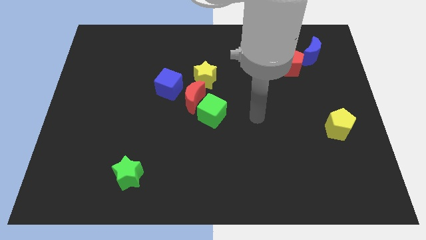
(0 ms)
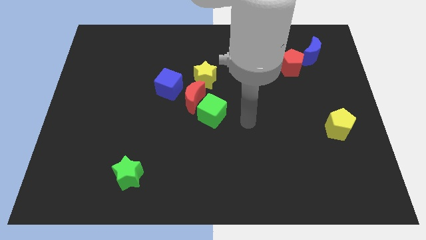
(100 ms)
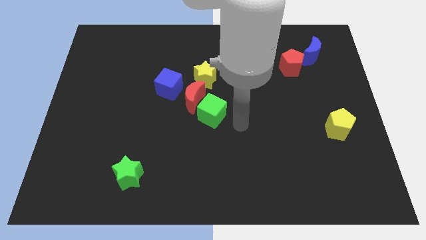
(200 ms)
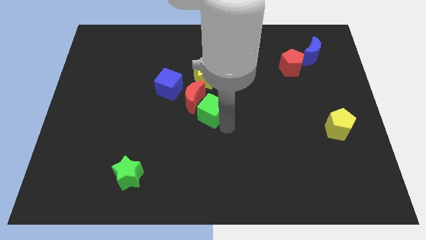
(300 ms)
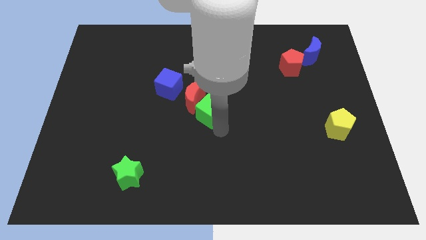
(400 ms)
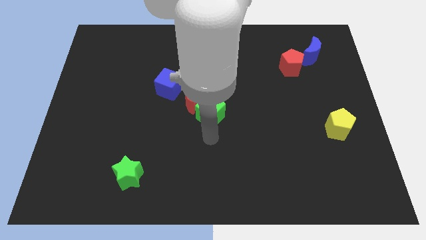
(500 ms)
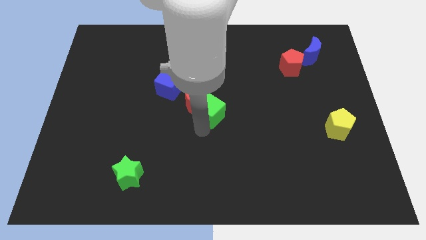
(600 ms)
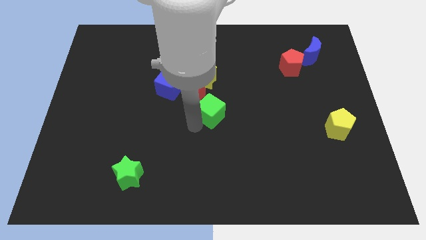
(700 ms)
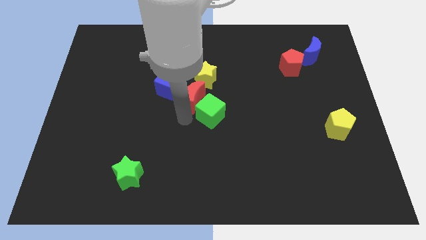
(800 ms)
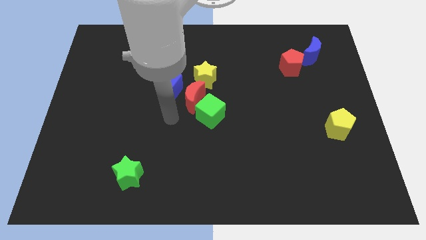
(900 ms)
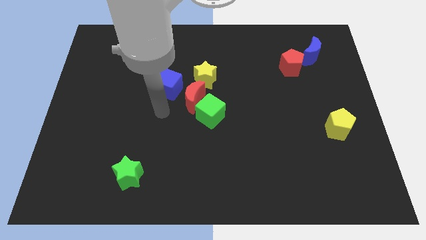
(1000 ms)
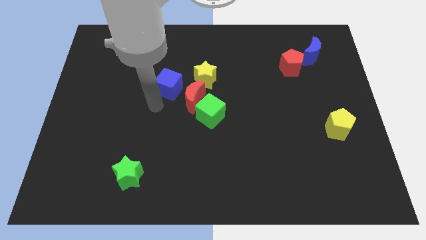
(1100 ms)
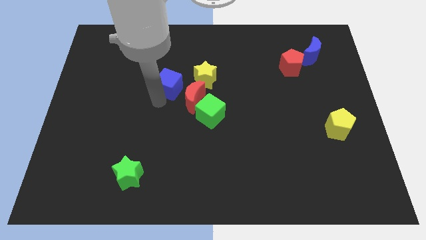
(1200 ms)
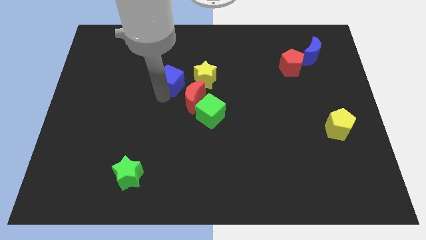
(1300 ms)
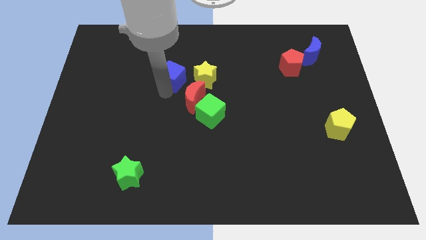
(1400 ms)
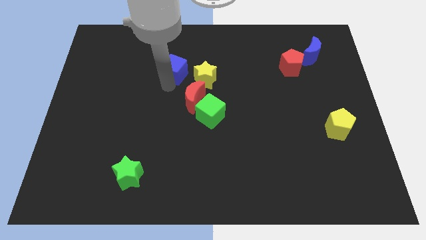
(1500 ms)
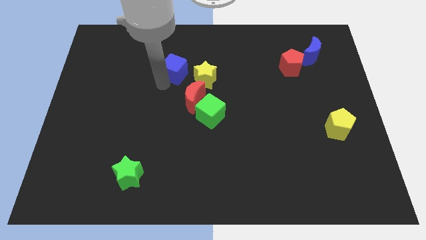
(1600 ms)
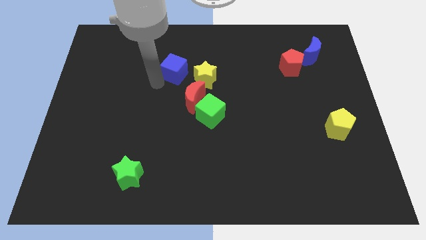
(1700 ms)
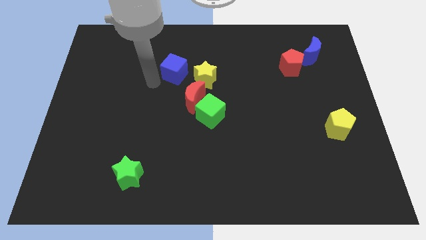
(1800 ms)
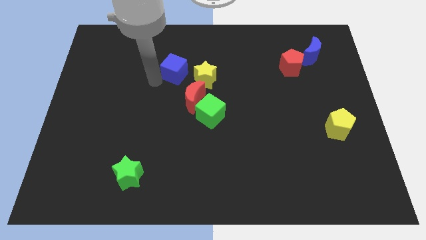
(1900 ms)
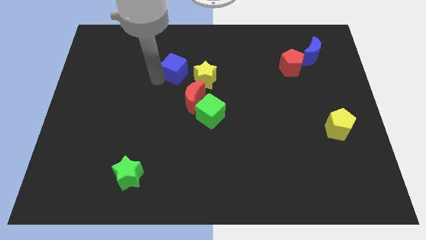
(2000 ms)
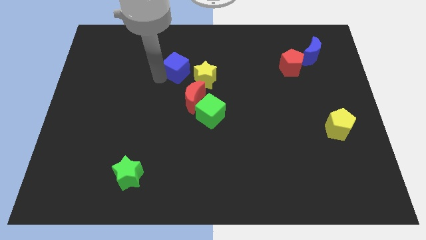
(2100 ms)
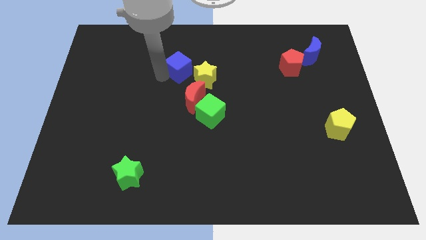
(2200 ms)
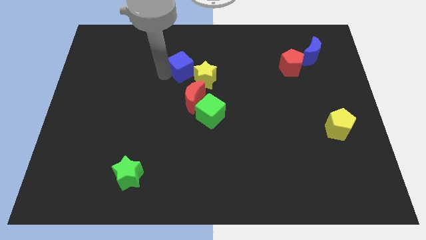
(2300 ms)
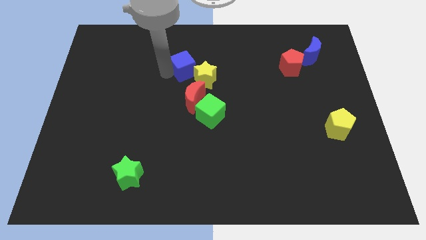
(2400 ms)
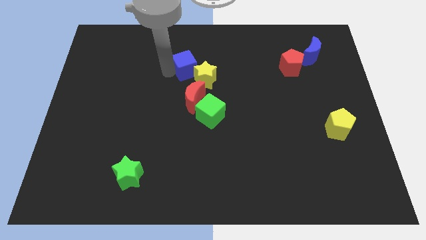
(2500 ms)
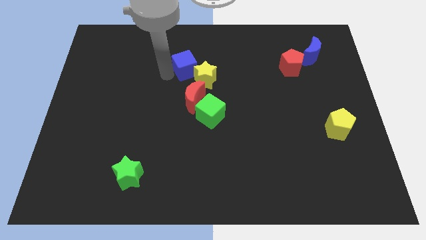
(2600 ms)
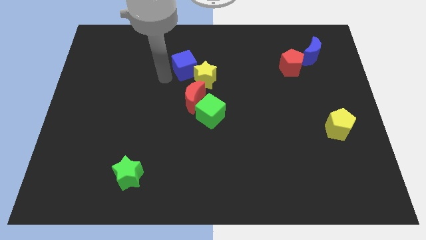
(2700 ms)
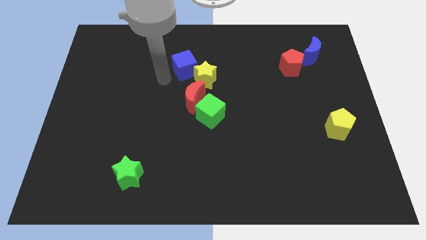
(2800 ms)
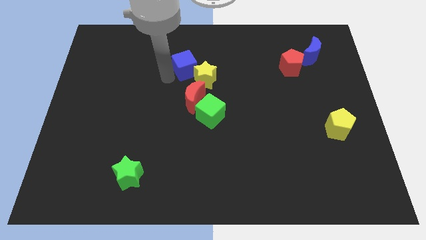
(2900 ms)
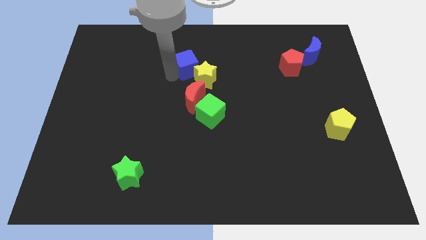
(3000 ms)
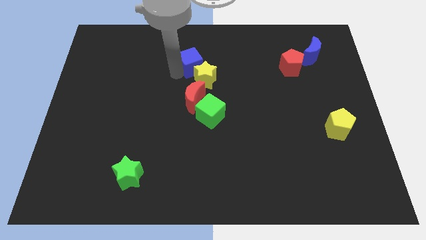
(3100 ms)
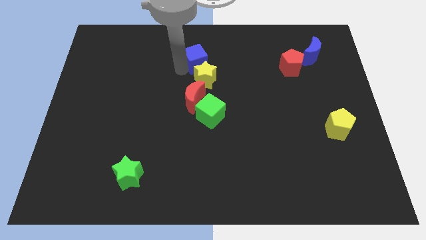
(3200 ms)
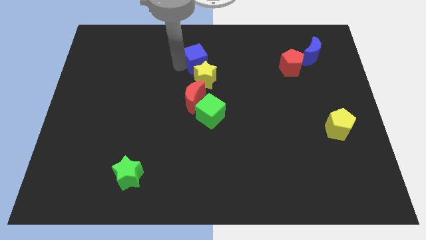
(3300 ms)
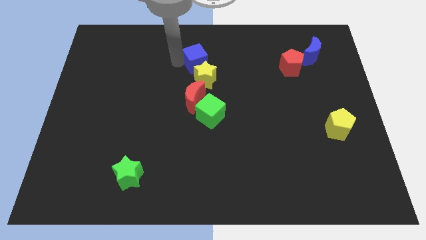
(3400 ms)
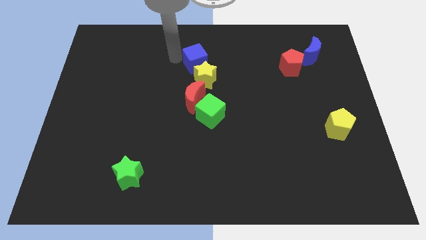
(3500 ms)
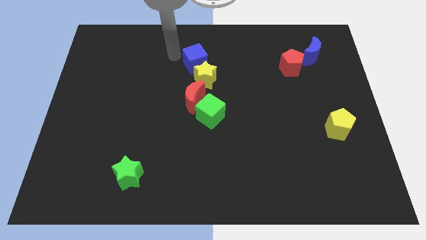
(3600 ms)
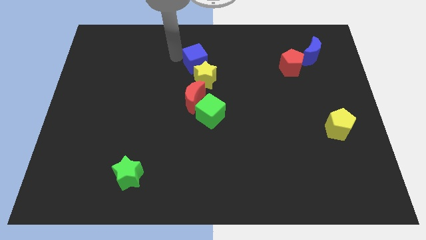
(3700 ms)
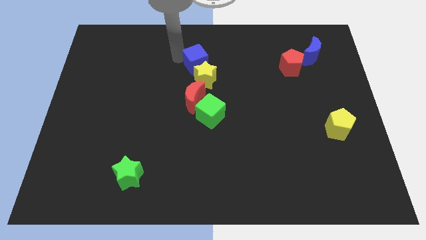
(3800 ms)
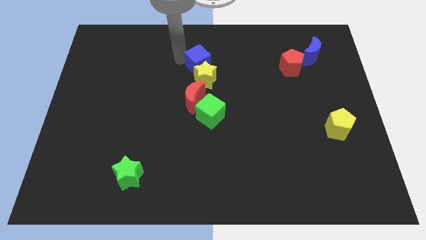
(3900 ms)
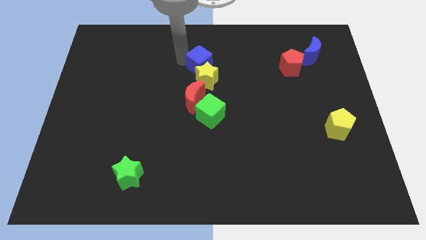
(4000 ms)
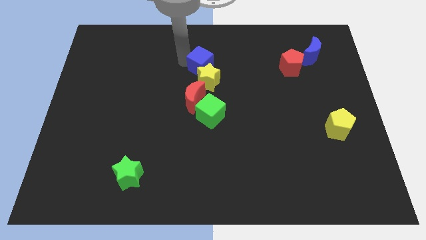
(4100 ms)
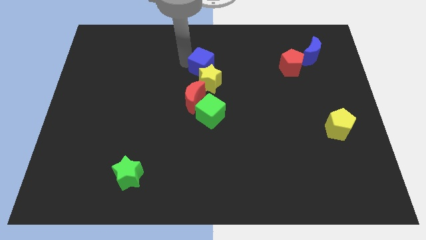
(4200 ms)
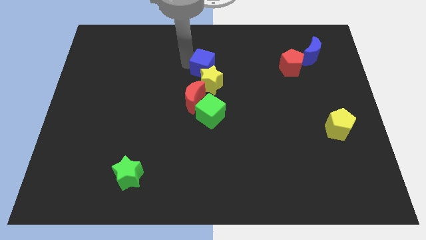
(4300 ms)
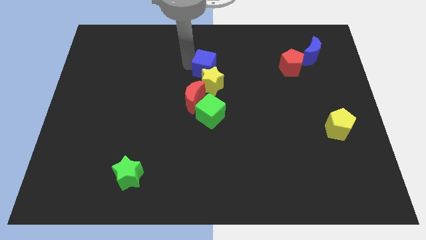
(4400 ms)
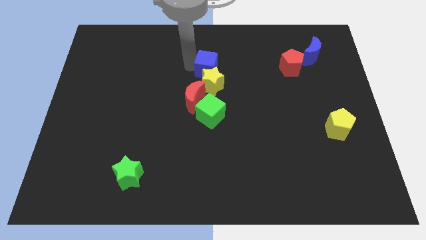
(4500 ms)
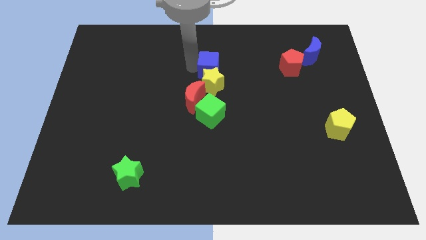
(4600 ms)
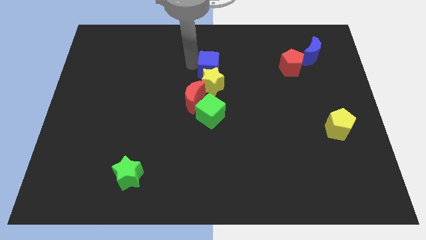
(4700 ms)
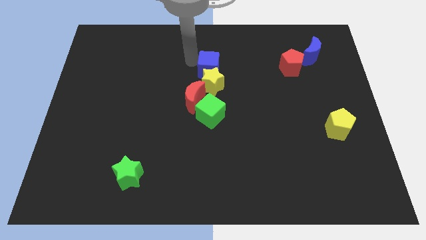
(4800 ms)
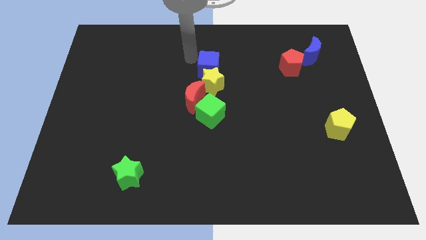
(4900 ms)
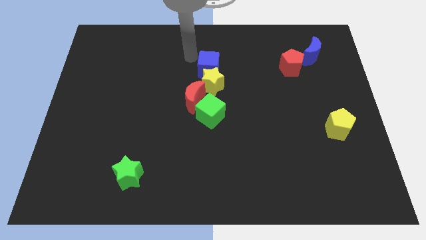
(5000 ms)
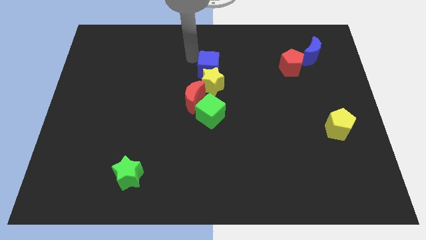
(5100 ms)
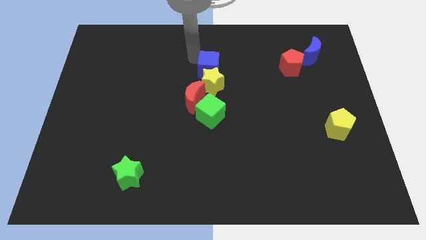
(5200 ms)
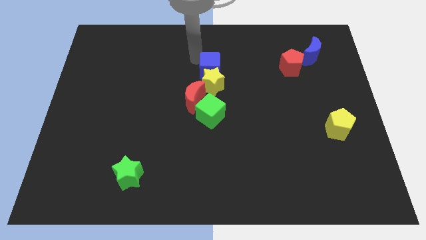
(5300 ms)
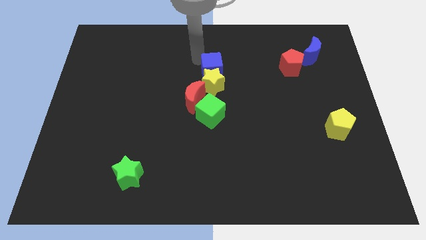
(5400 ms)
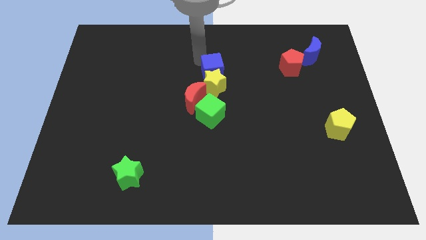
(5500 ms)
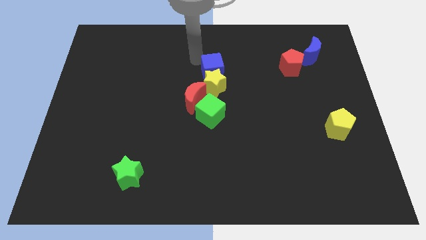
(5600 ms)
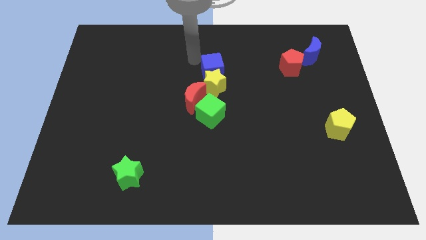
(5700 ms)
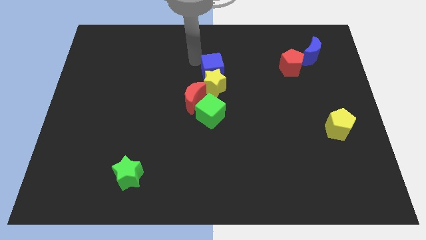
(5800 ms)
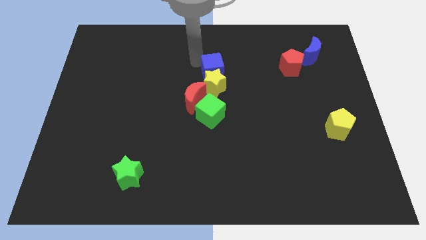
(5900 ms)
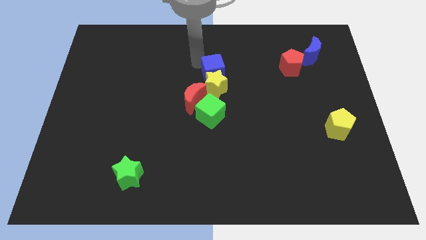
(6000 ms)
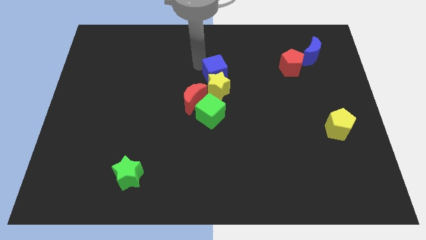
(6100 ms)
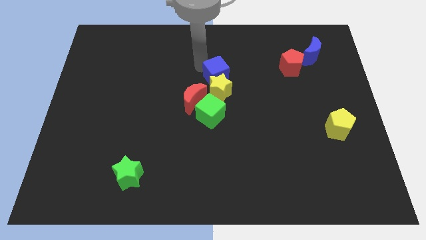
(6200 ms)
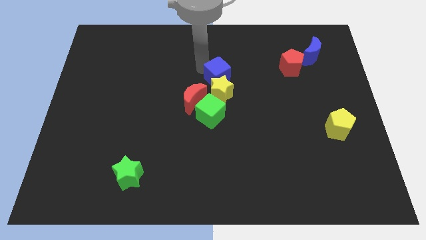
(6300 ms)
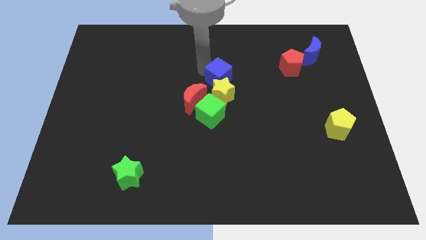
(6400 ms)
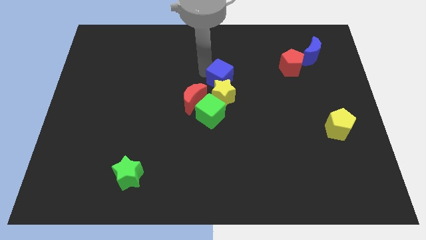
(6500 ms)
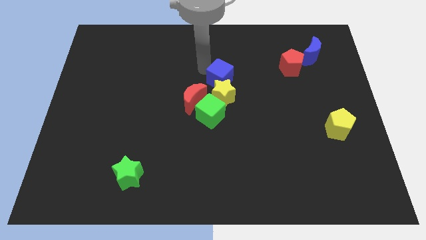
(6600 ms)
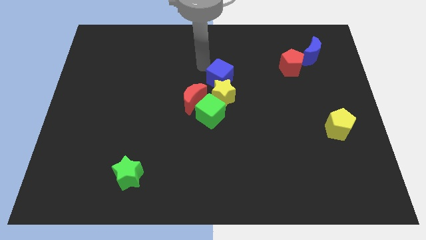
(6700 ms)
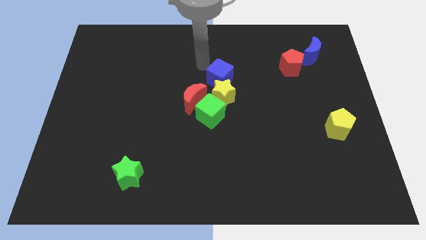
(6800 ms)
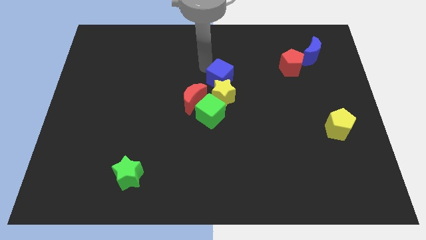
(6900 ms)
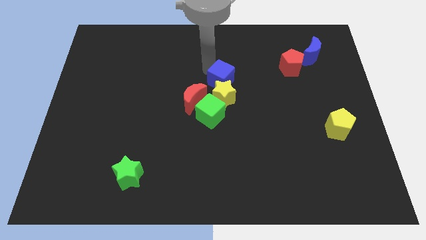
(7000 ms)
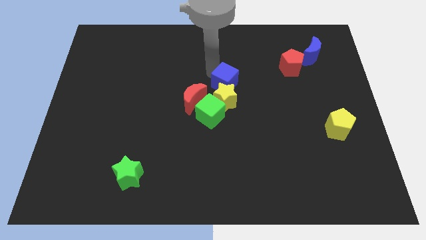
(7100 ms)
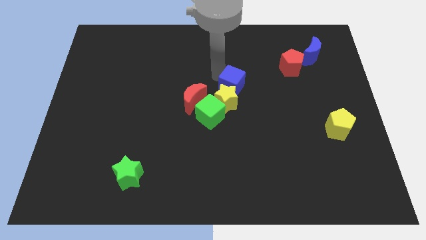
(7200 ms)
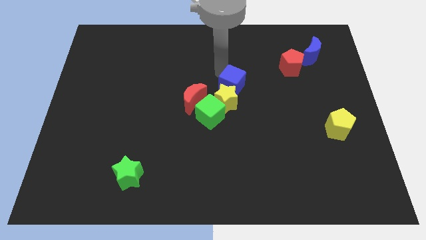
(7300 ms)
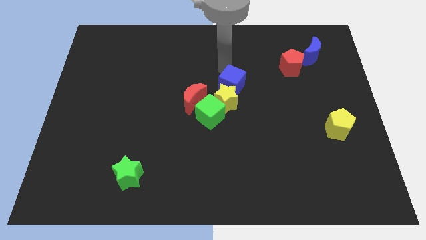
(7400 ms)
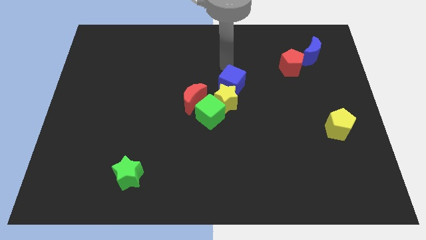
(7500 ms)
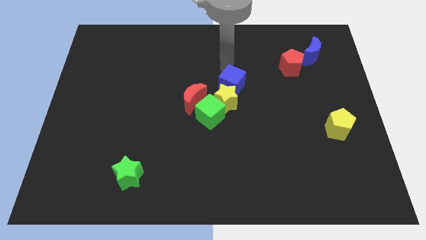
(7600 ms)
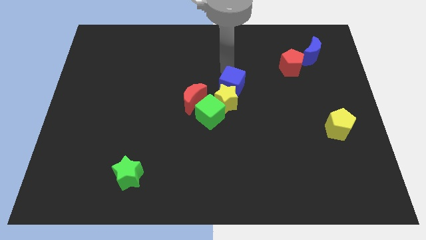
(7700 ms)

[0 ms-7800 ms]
put the blue cube to the right side of the red moon
